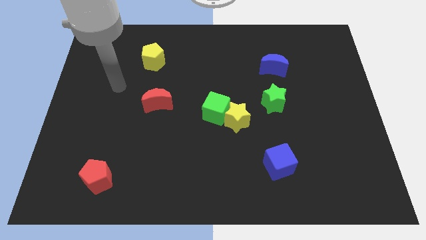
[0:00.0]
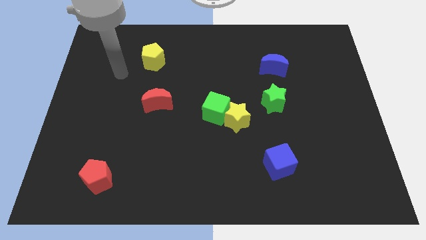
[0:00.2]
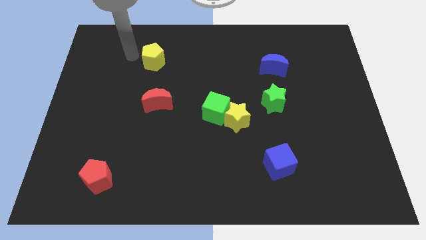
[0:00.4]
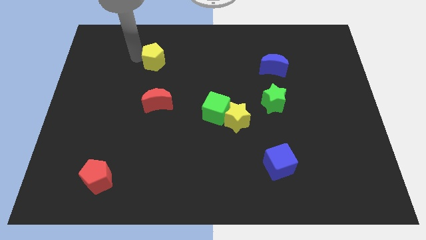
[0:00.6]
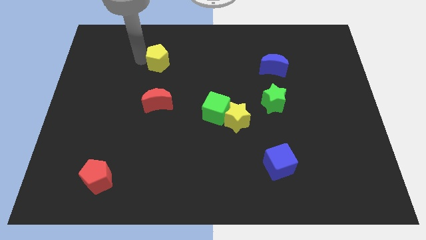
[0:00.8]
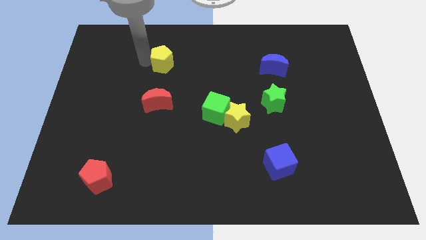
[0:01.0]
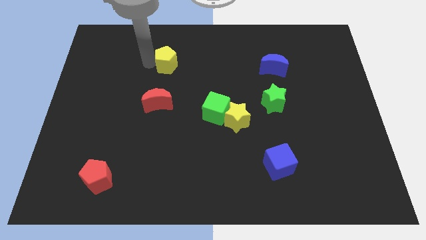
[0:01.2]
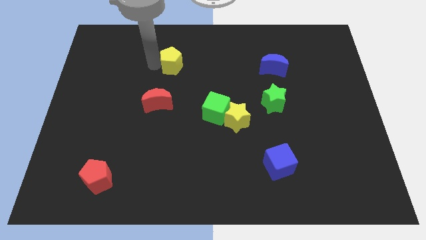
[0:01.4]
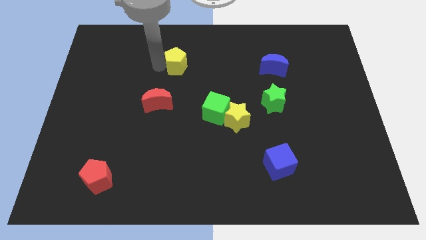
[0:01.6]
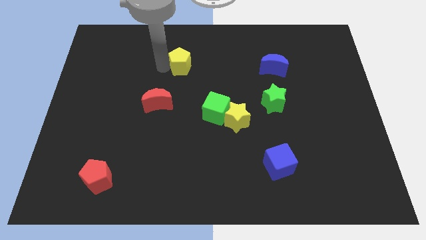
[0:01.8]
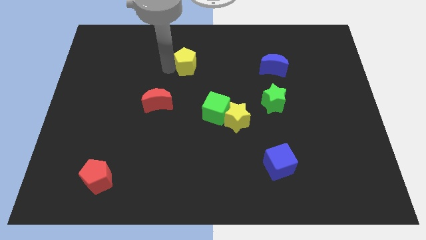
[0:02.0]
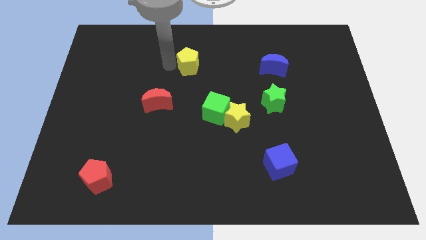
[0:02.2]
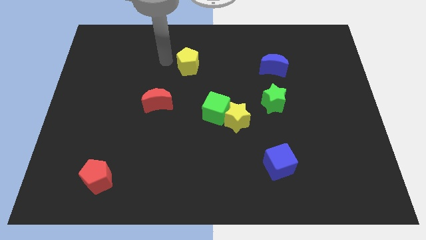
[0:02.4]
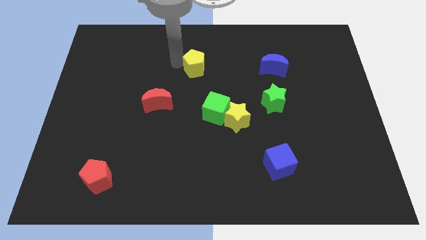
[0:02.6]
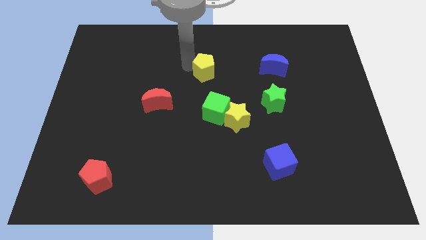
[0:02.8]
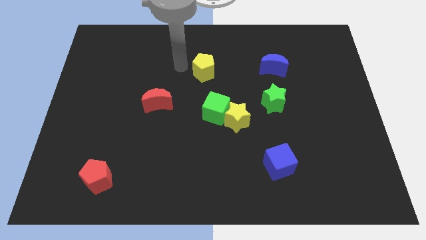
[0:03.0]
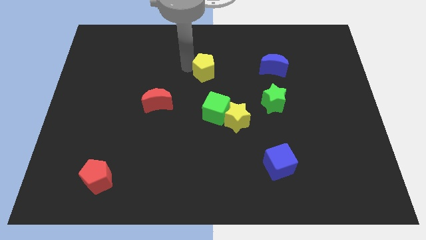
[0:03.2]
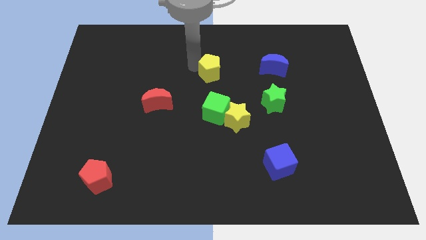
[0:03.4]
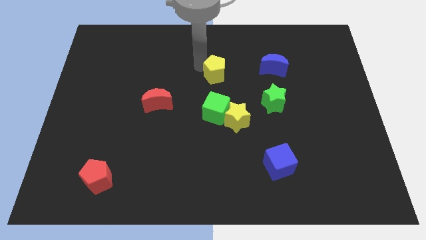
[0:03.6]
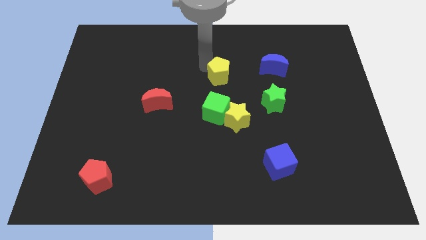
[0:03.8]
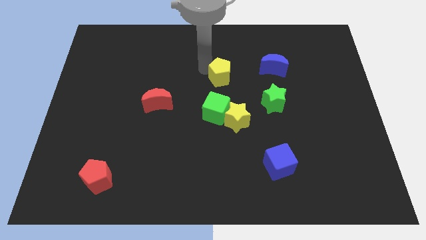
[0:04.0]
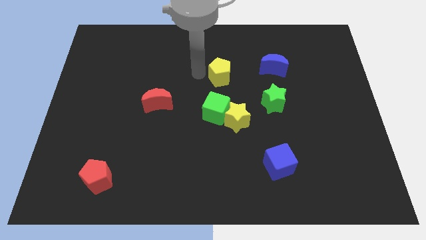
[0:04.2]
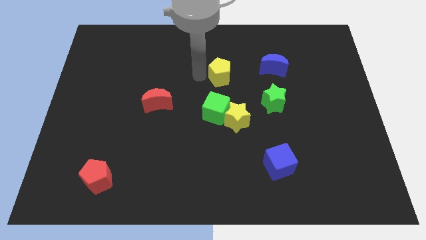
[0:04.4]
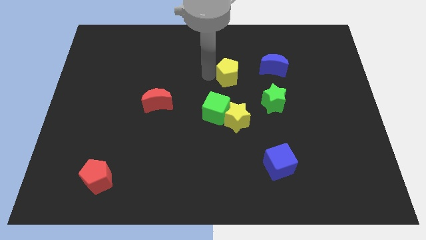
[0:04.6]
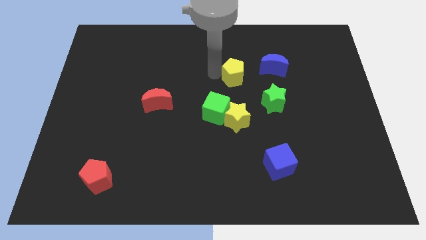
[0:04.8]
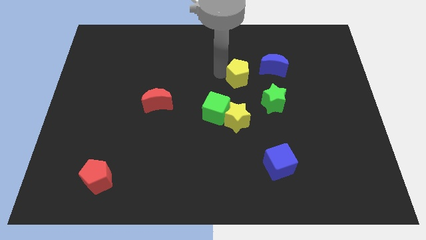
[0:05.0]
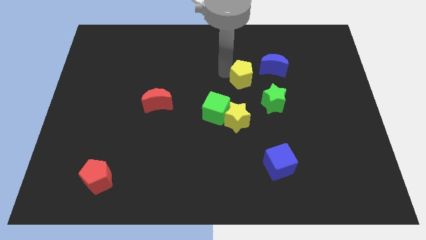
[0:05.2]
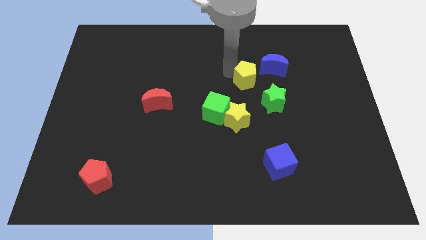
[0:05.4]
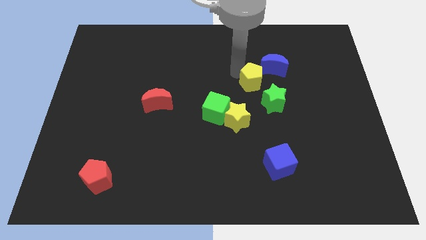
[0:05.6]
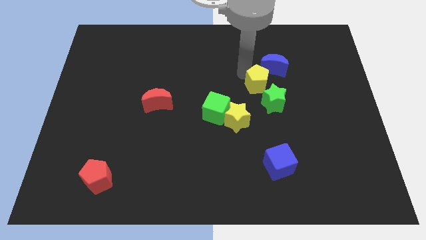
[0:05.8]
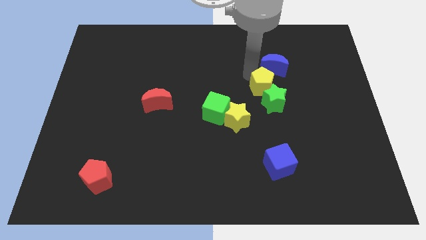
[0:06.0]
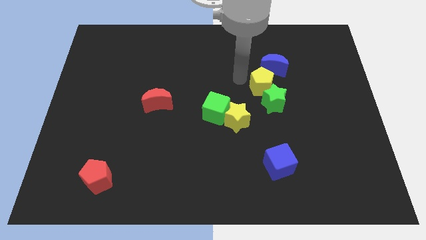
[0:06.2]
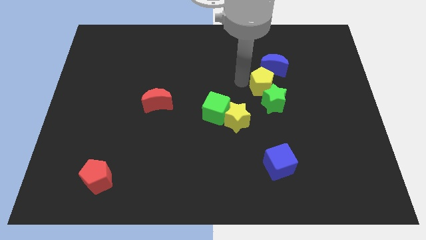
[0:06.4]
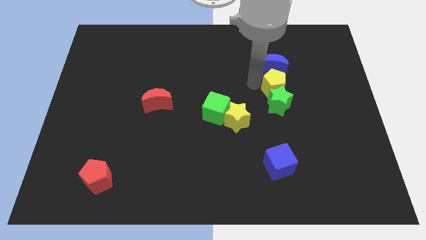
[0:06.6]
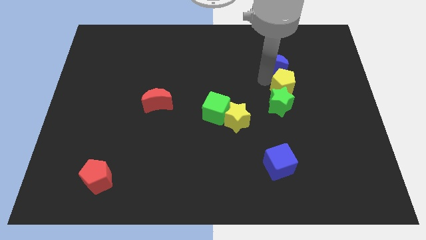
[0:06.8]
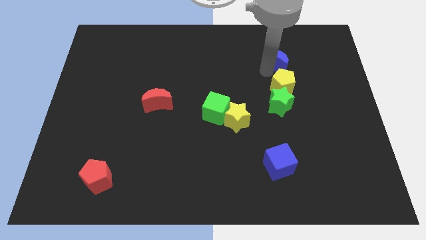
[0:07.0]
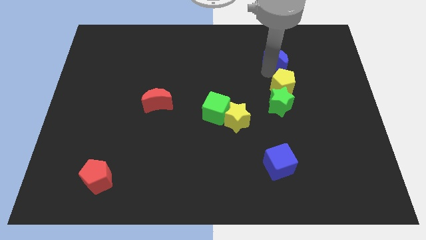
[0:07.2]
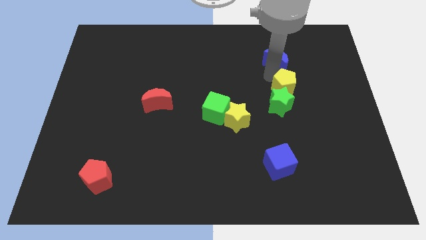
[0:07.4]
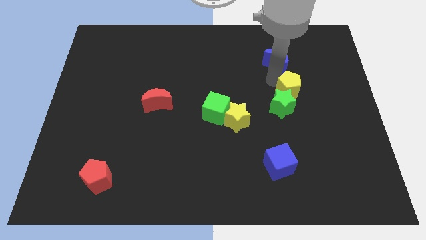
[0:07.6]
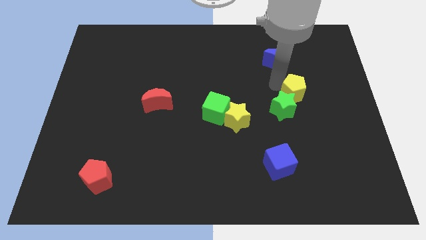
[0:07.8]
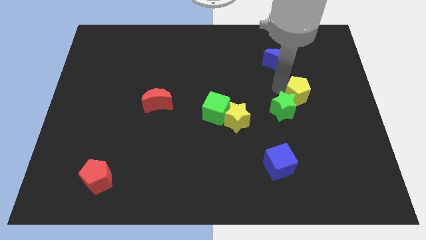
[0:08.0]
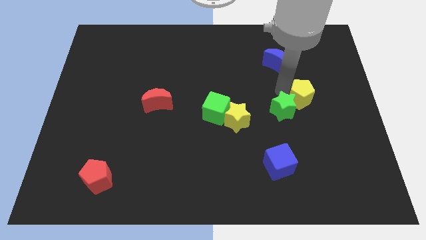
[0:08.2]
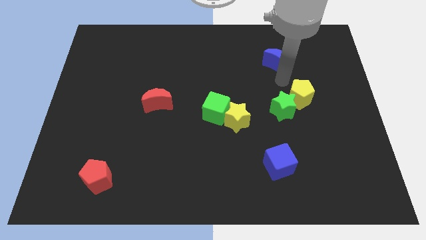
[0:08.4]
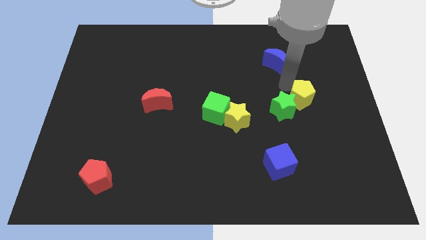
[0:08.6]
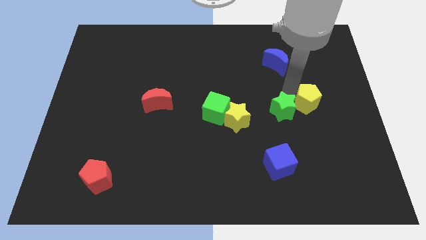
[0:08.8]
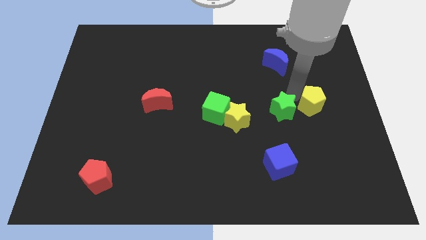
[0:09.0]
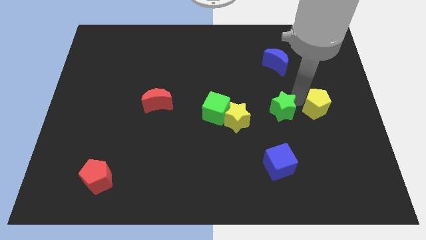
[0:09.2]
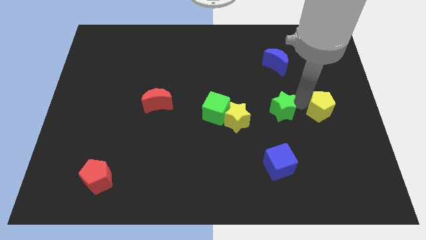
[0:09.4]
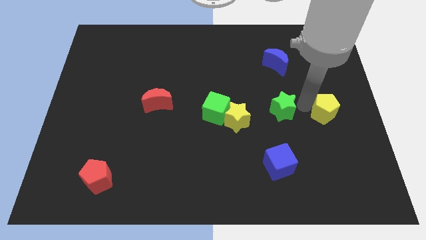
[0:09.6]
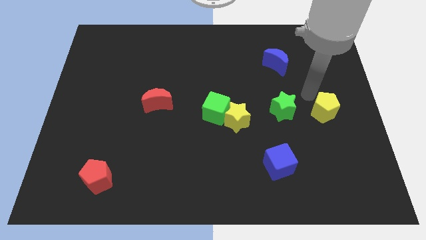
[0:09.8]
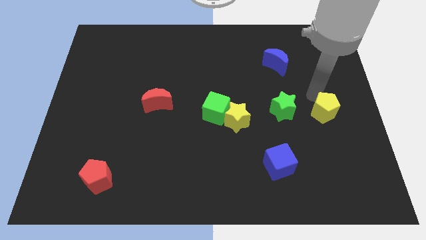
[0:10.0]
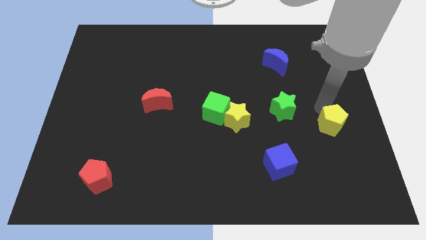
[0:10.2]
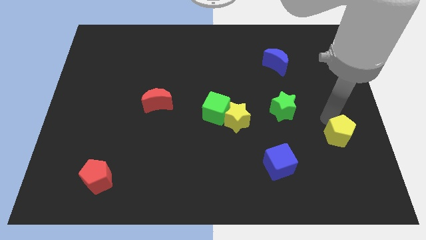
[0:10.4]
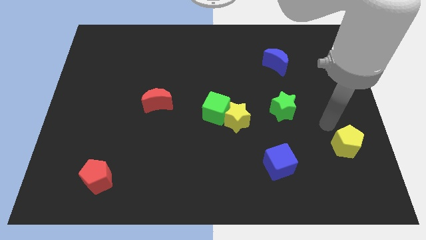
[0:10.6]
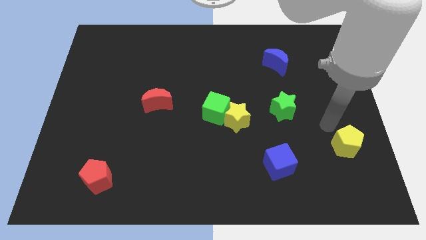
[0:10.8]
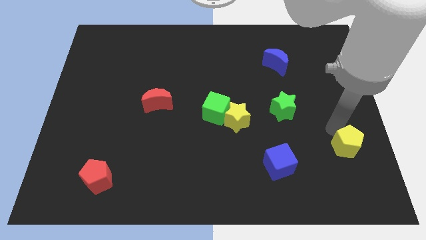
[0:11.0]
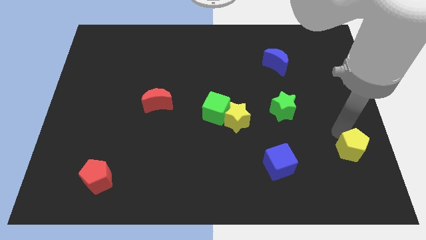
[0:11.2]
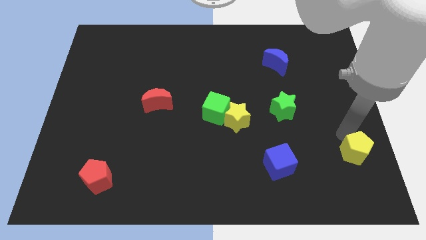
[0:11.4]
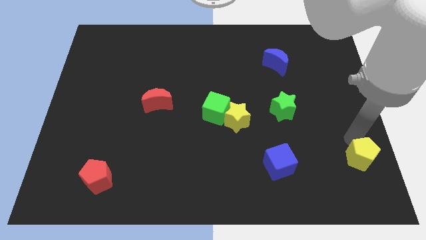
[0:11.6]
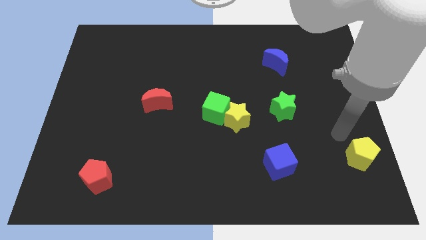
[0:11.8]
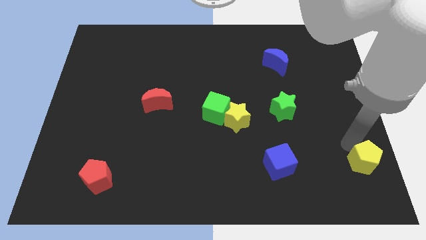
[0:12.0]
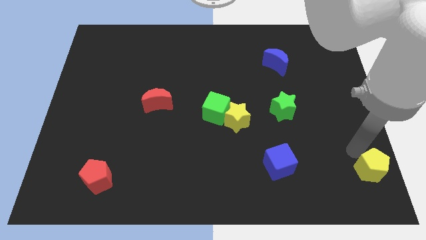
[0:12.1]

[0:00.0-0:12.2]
move the yellow pentagon to the bottom right

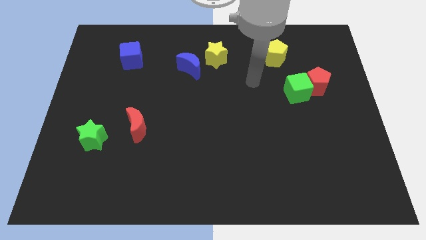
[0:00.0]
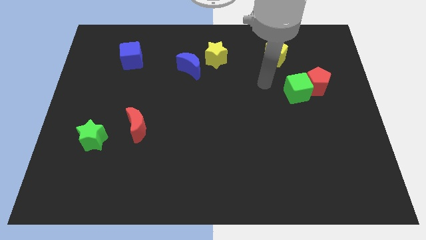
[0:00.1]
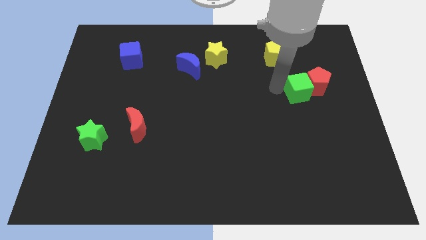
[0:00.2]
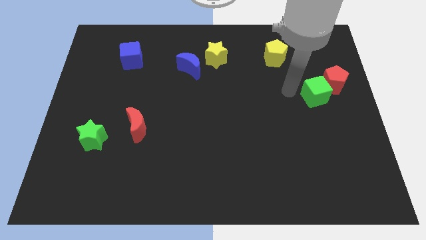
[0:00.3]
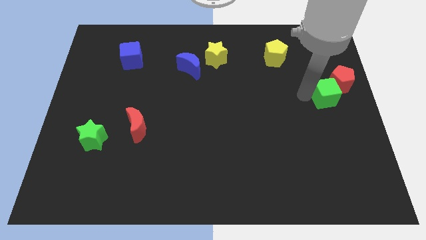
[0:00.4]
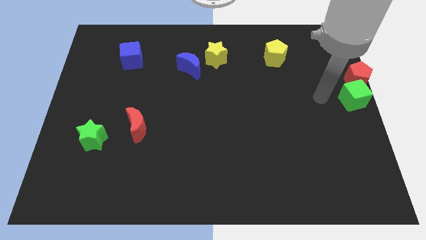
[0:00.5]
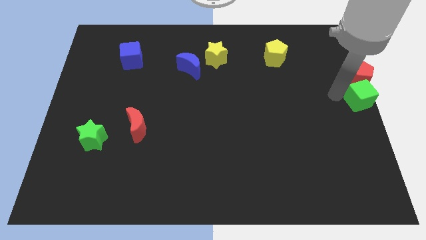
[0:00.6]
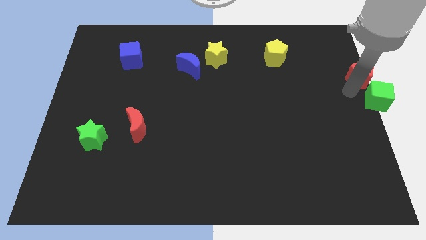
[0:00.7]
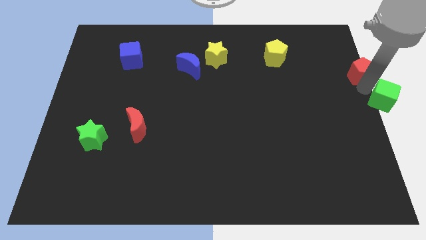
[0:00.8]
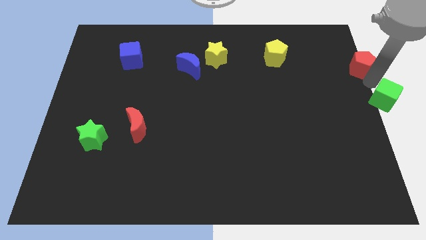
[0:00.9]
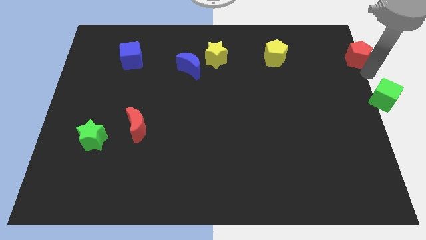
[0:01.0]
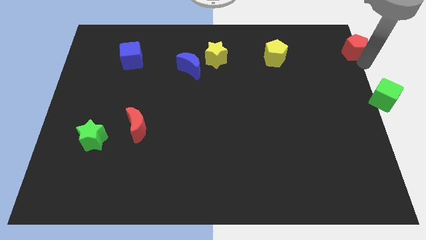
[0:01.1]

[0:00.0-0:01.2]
move the red pentagon to the upper right corner
